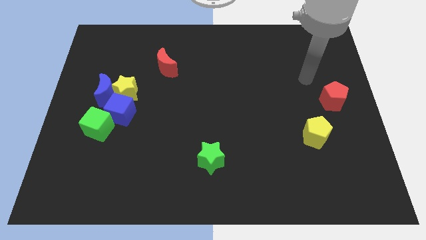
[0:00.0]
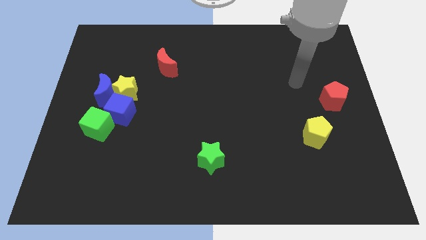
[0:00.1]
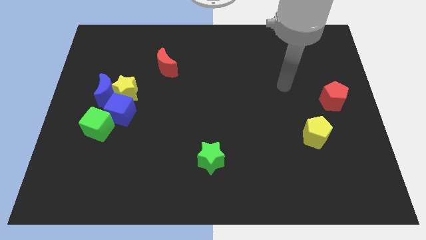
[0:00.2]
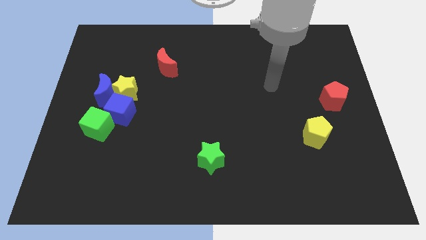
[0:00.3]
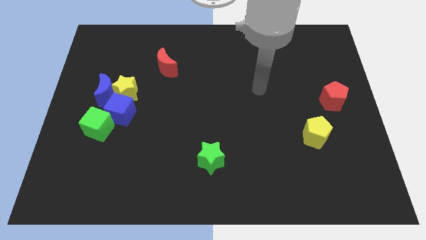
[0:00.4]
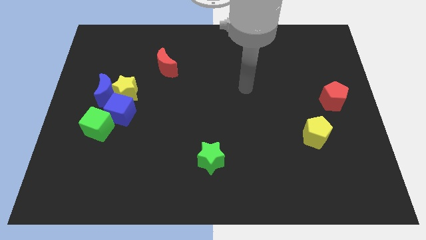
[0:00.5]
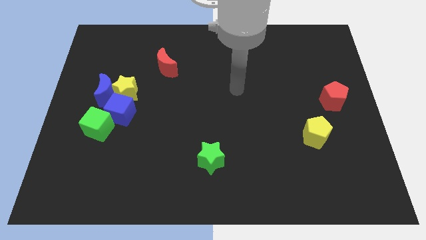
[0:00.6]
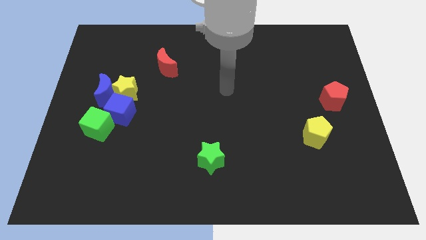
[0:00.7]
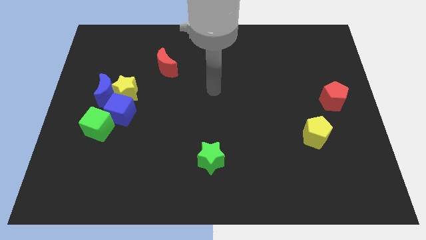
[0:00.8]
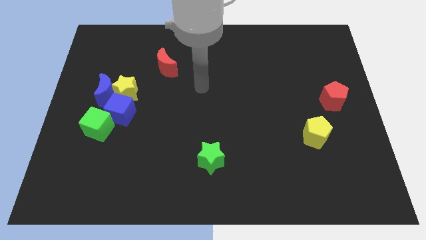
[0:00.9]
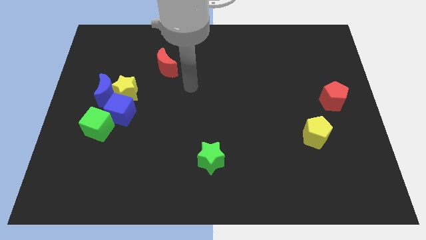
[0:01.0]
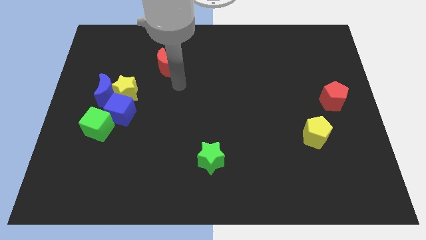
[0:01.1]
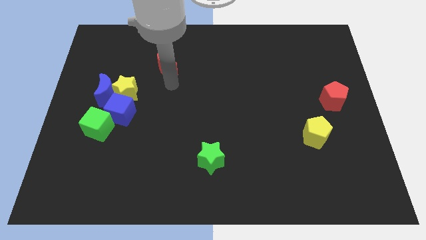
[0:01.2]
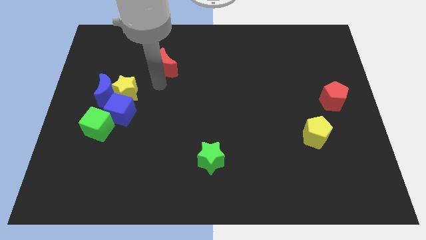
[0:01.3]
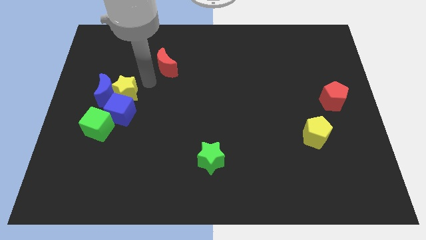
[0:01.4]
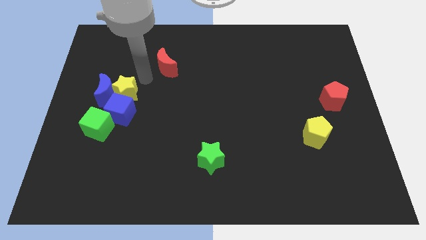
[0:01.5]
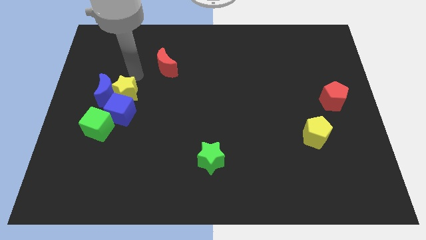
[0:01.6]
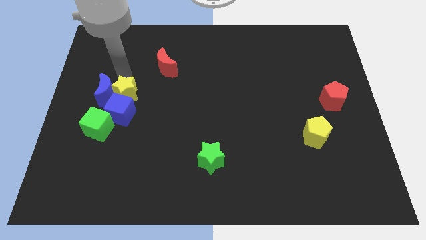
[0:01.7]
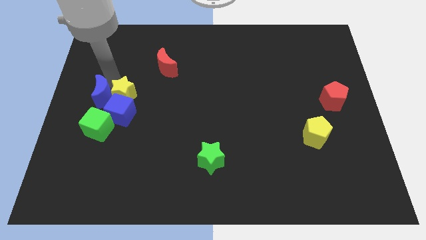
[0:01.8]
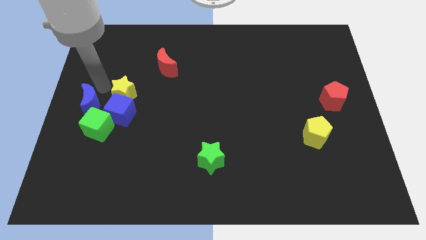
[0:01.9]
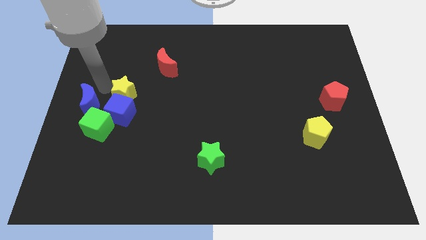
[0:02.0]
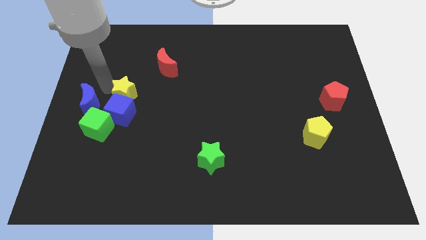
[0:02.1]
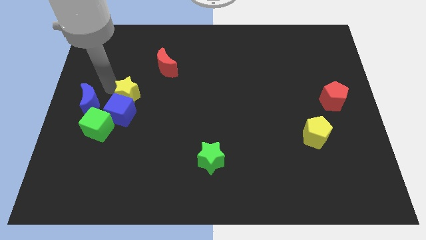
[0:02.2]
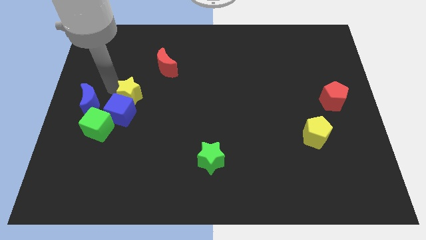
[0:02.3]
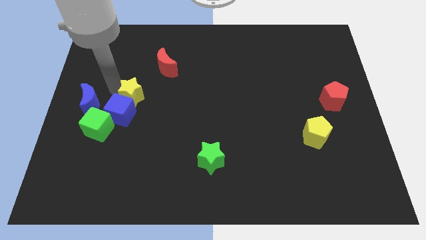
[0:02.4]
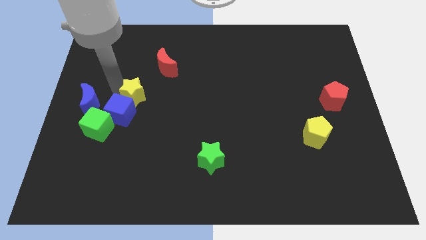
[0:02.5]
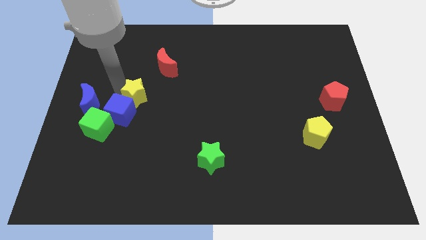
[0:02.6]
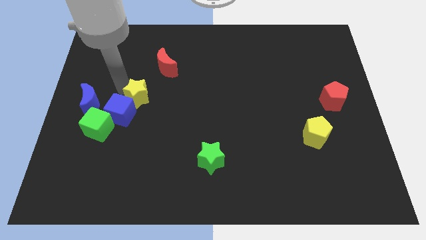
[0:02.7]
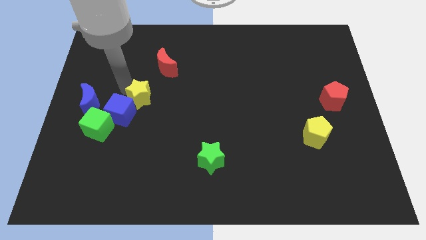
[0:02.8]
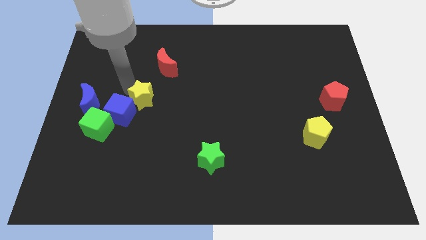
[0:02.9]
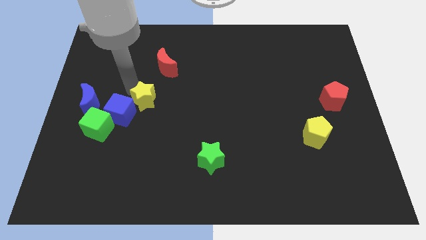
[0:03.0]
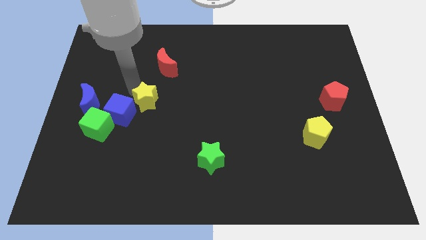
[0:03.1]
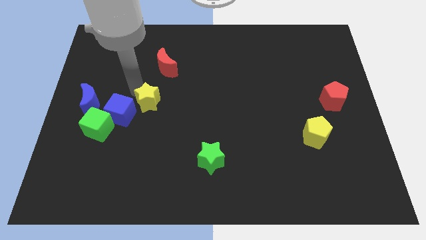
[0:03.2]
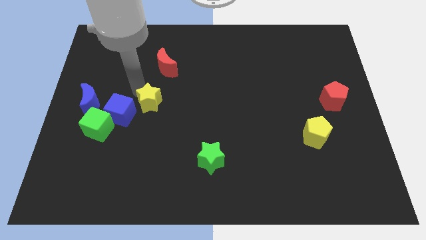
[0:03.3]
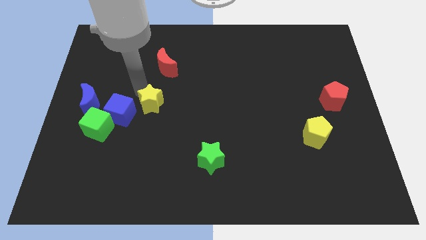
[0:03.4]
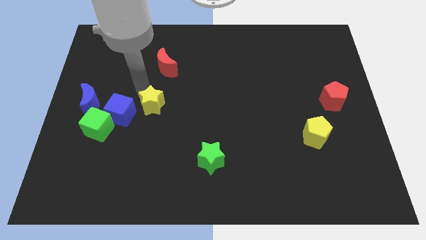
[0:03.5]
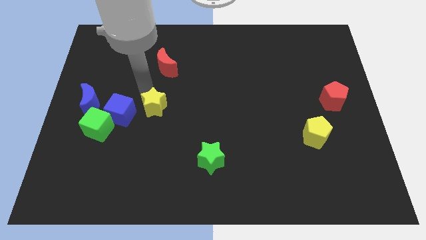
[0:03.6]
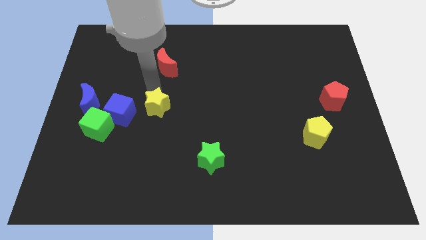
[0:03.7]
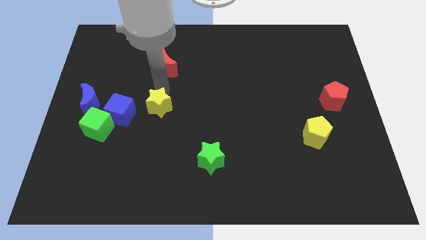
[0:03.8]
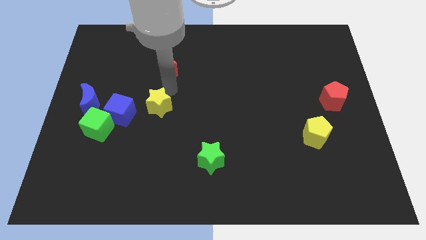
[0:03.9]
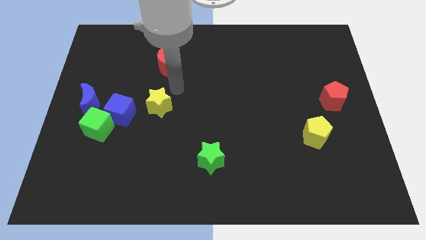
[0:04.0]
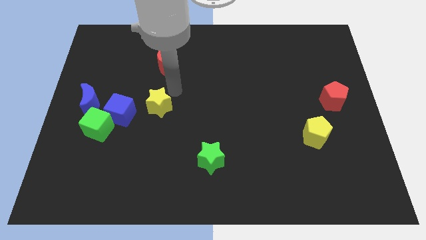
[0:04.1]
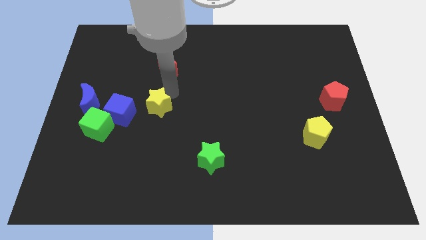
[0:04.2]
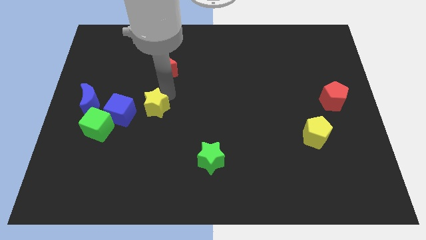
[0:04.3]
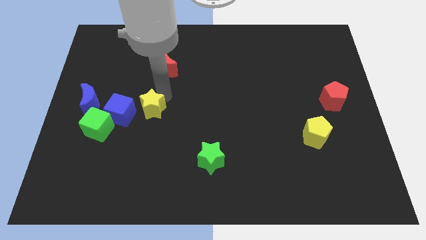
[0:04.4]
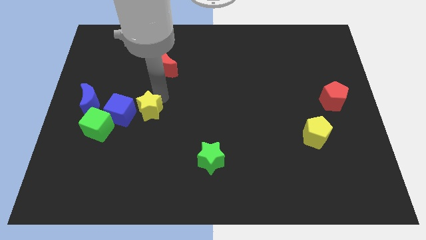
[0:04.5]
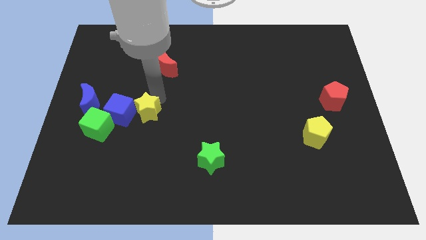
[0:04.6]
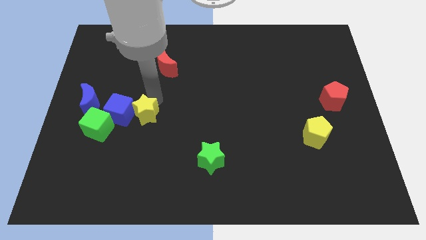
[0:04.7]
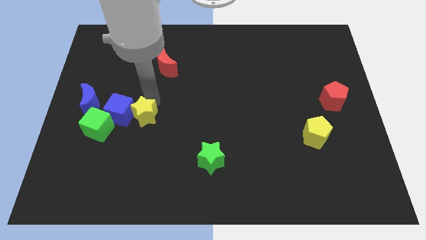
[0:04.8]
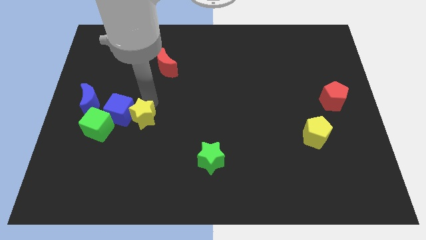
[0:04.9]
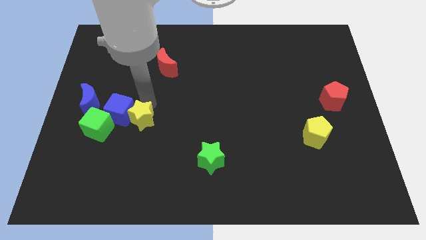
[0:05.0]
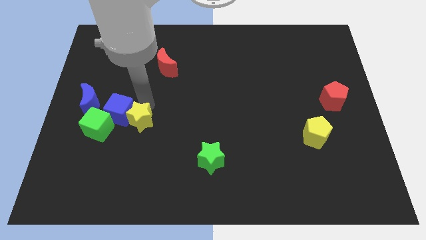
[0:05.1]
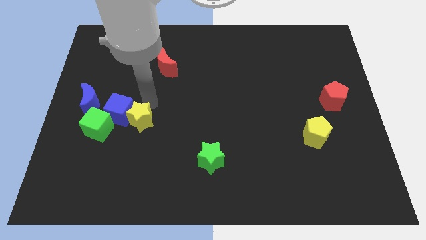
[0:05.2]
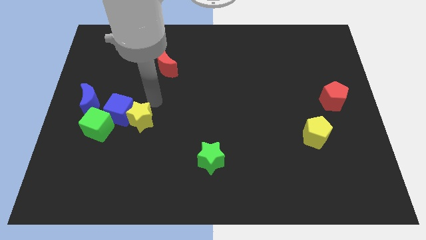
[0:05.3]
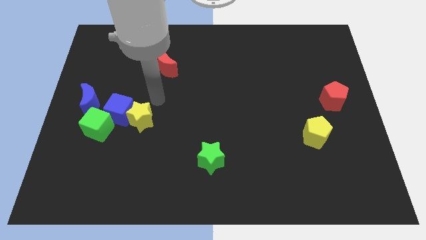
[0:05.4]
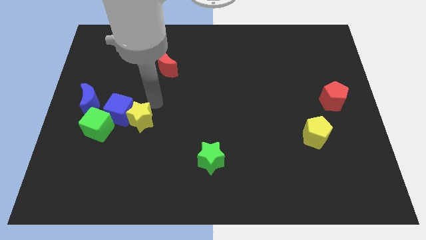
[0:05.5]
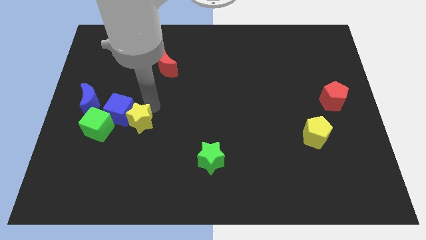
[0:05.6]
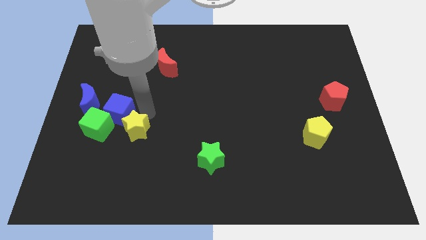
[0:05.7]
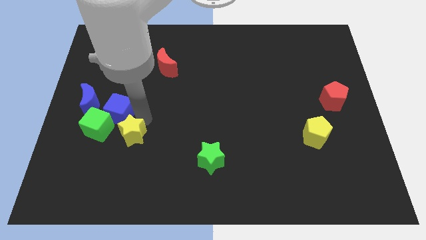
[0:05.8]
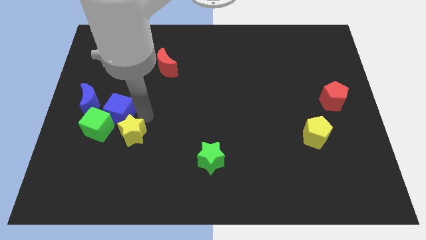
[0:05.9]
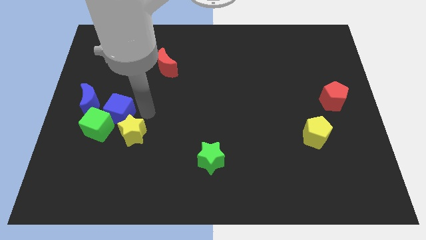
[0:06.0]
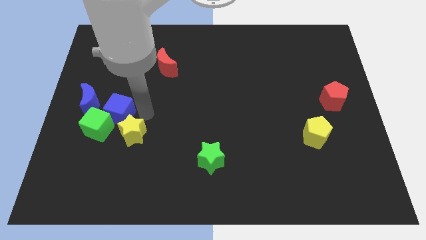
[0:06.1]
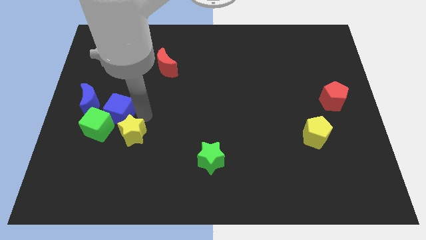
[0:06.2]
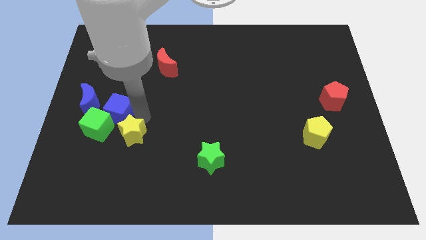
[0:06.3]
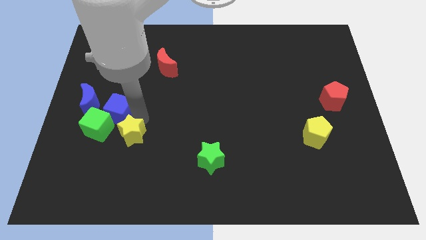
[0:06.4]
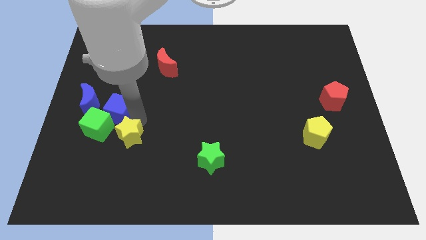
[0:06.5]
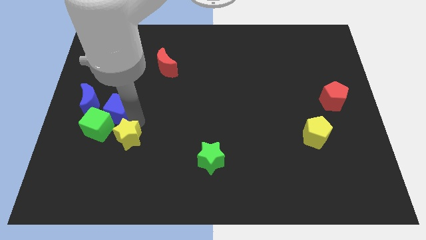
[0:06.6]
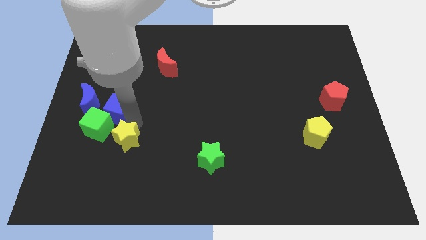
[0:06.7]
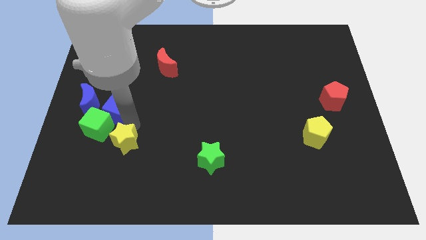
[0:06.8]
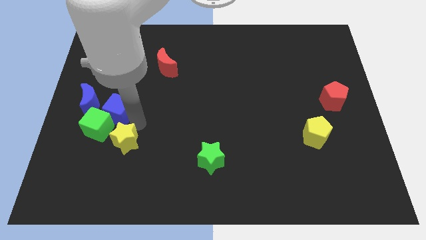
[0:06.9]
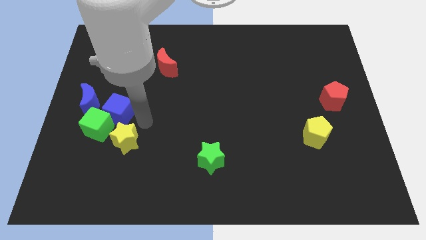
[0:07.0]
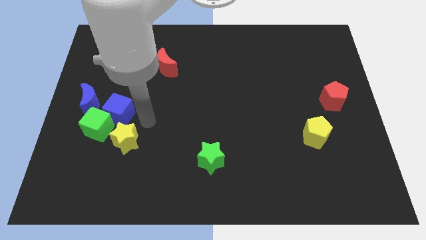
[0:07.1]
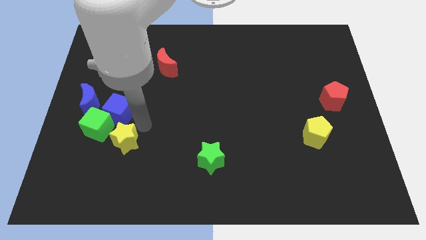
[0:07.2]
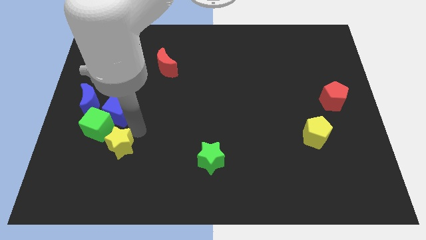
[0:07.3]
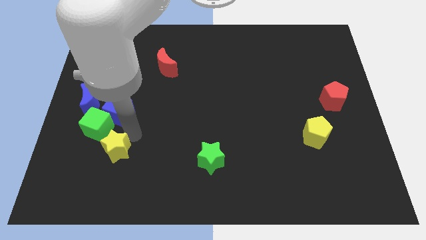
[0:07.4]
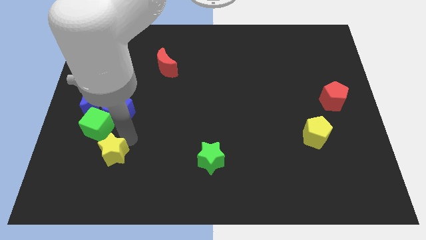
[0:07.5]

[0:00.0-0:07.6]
move the yellow star below the green cube

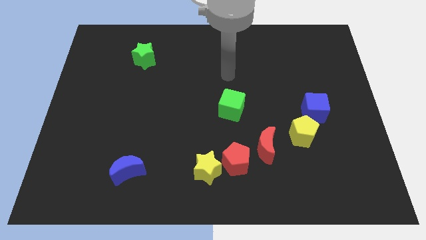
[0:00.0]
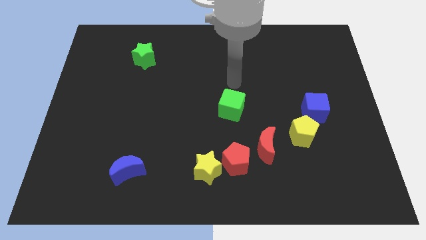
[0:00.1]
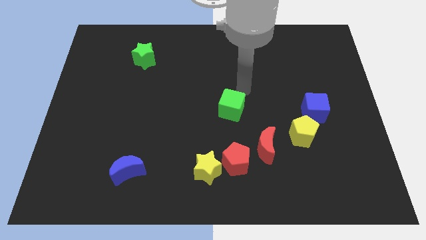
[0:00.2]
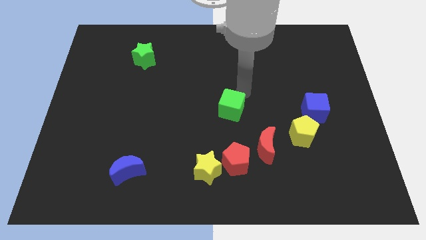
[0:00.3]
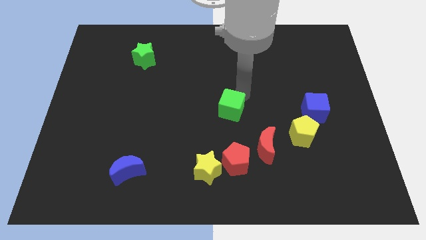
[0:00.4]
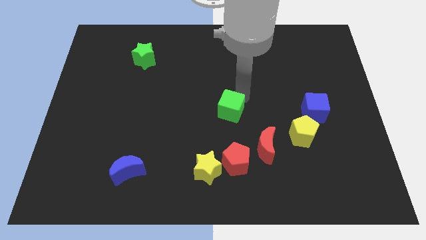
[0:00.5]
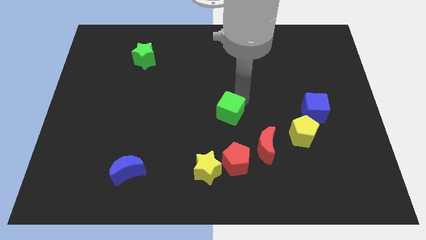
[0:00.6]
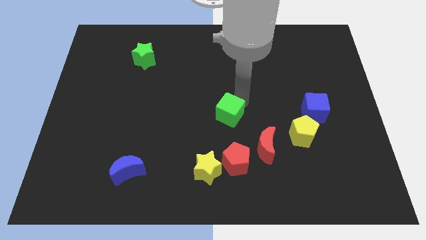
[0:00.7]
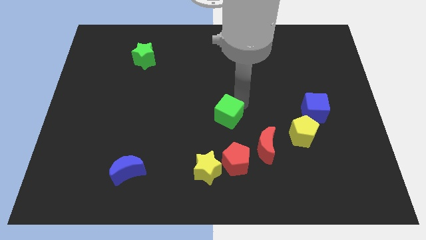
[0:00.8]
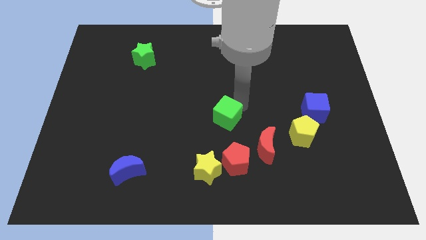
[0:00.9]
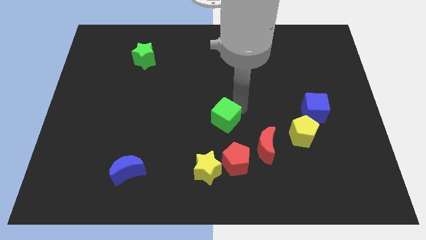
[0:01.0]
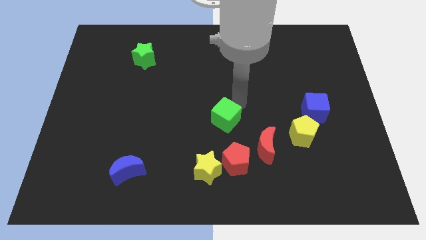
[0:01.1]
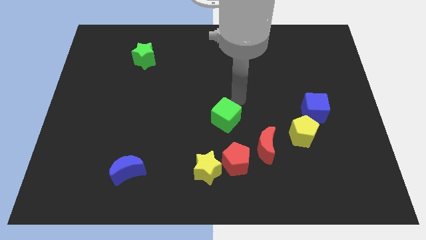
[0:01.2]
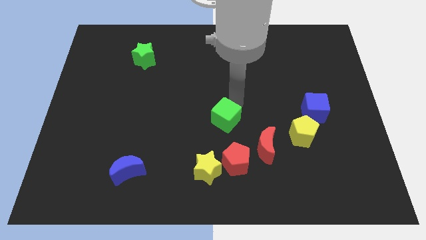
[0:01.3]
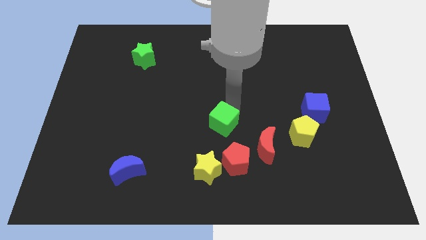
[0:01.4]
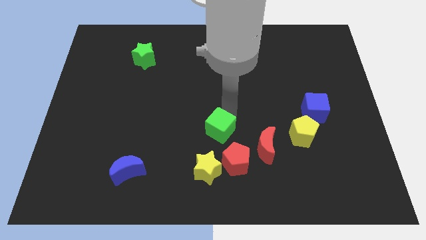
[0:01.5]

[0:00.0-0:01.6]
move the green cube to the top left of the red pentagon
